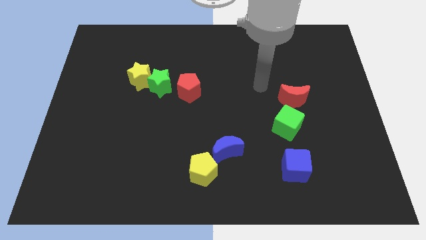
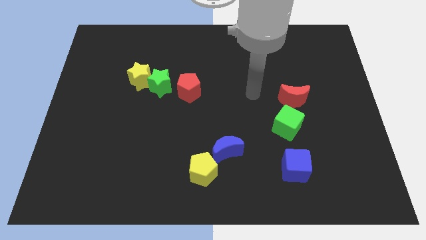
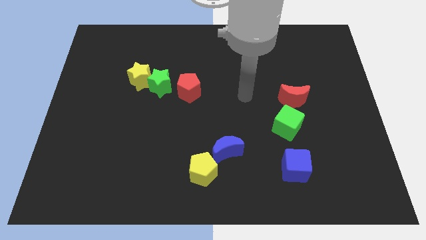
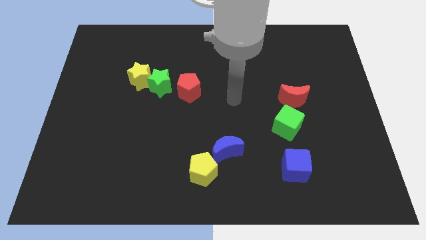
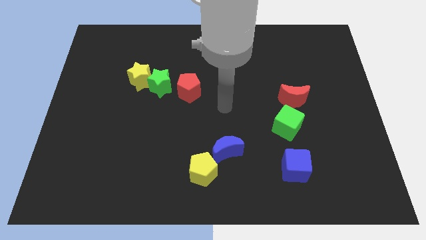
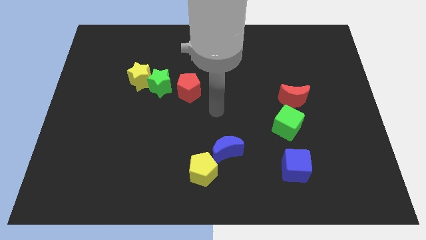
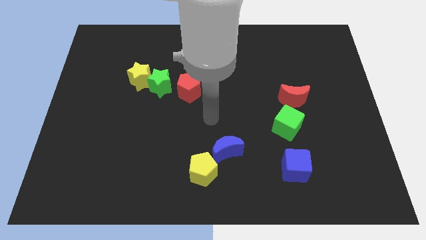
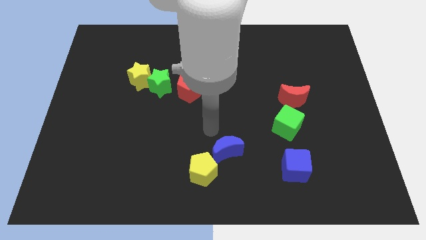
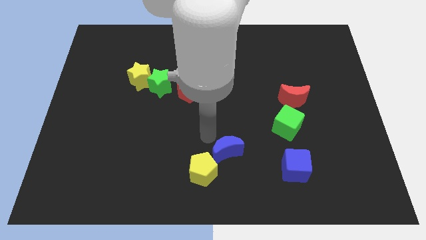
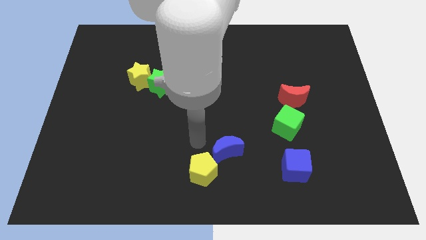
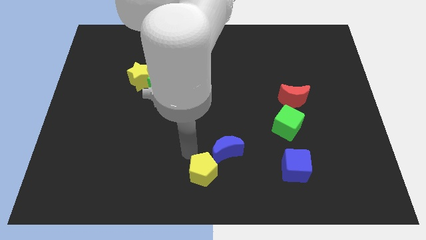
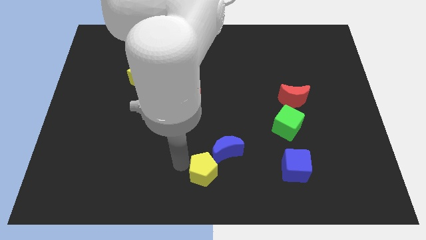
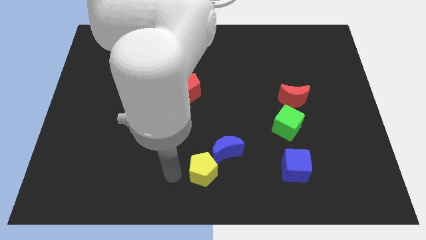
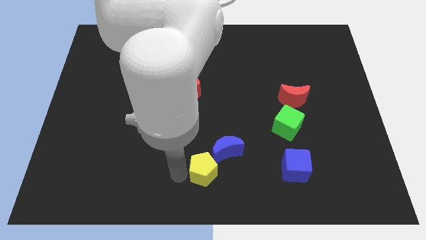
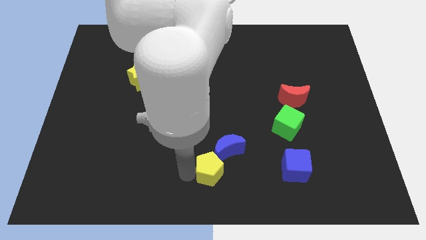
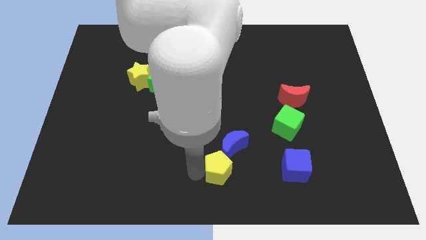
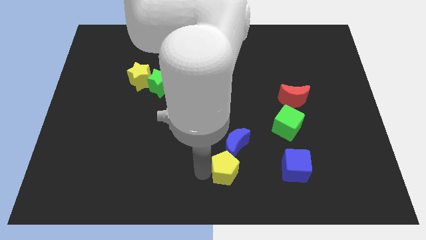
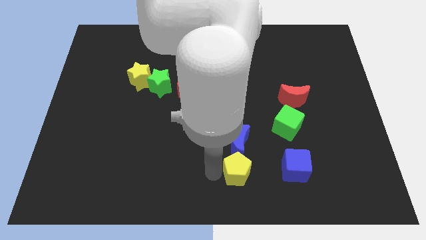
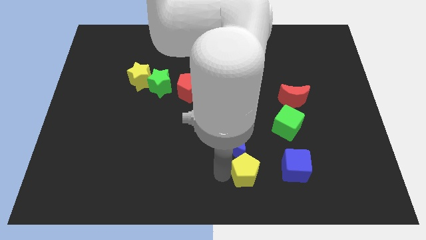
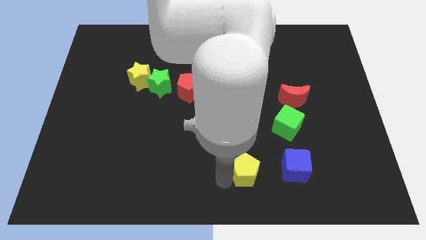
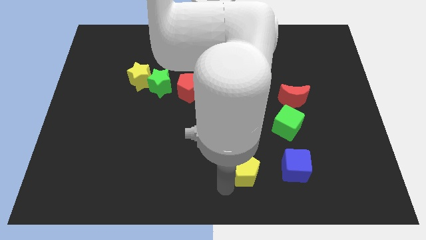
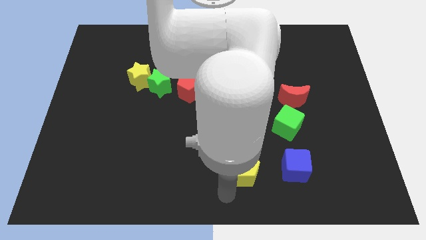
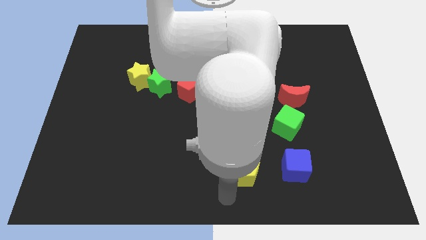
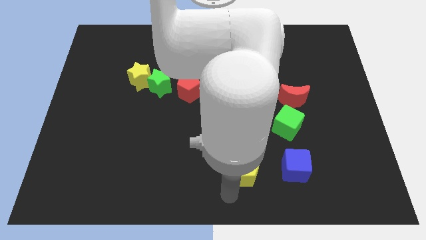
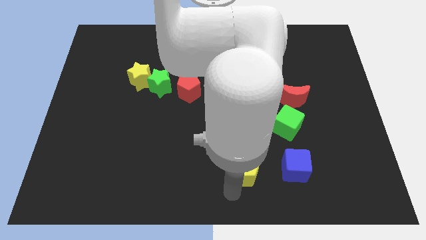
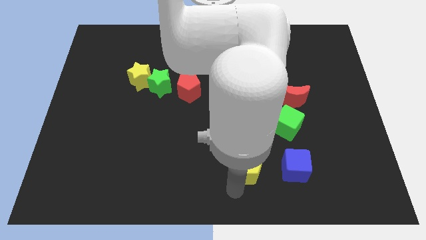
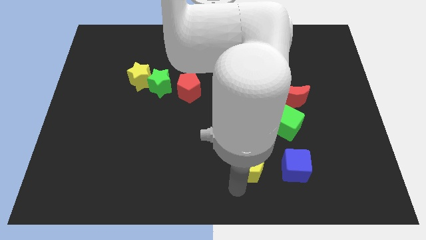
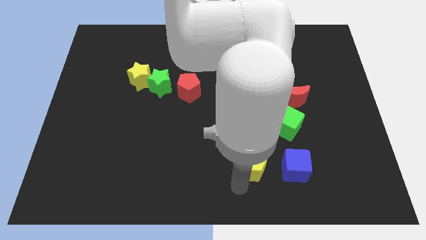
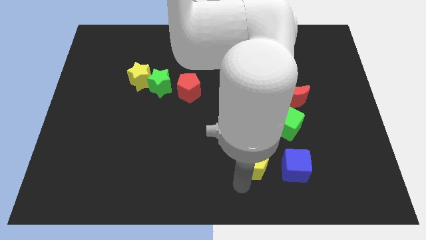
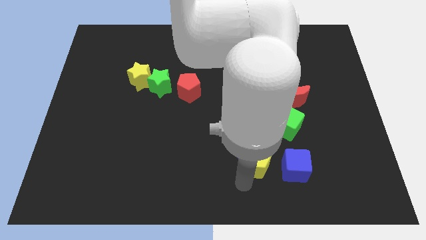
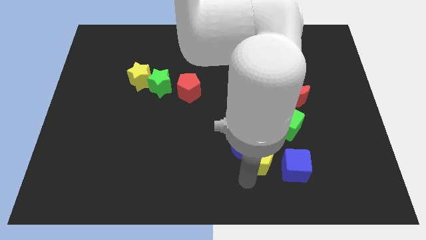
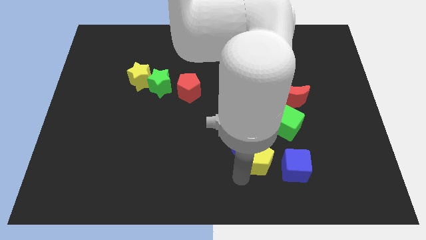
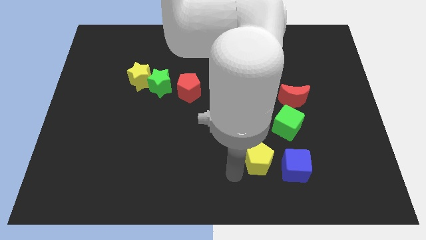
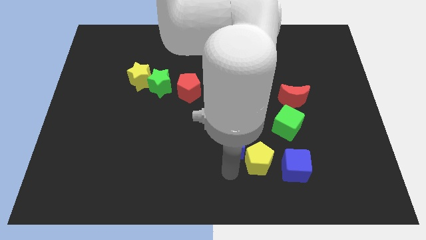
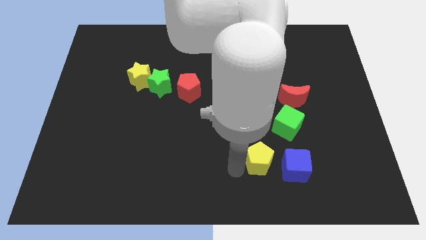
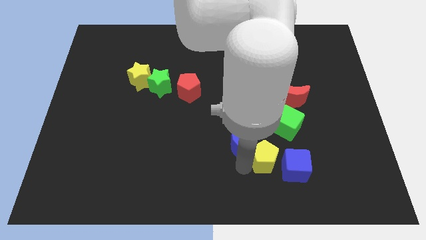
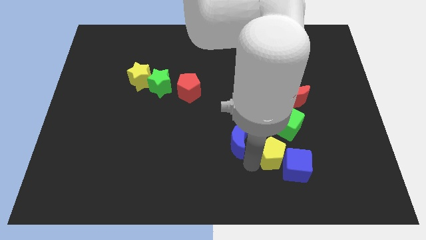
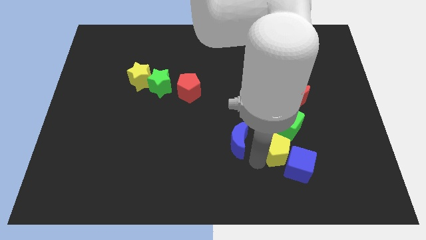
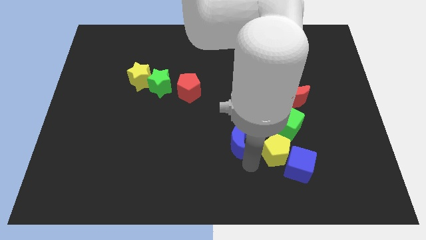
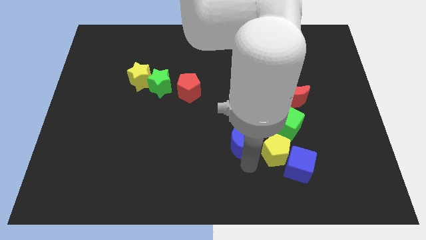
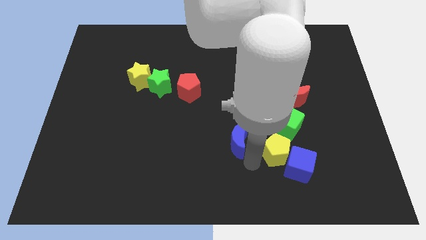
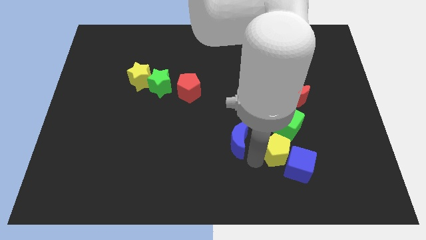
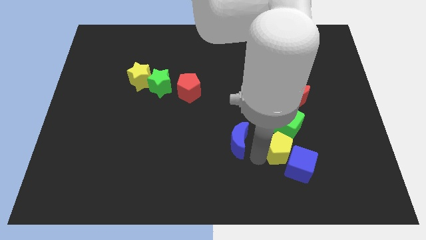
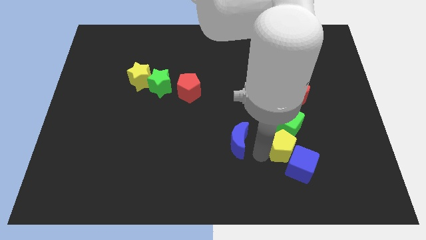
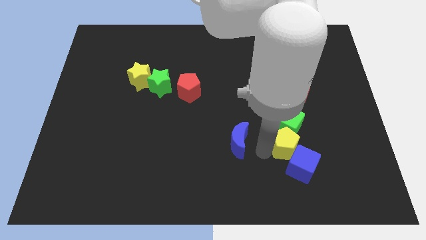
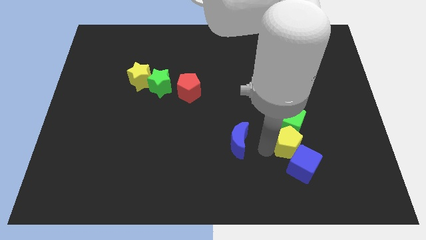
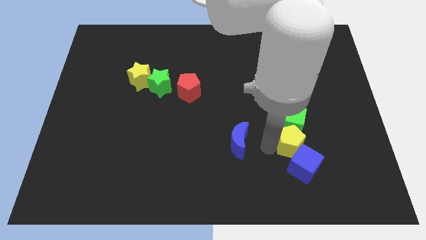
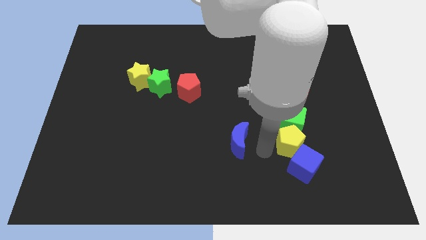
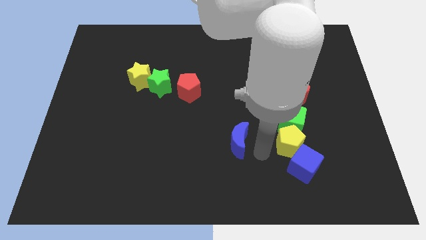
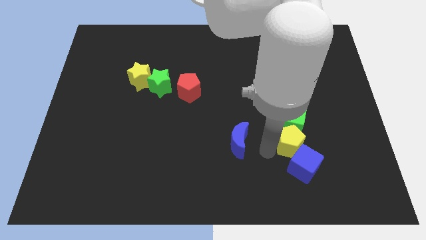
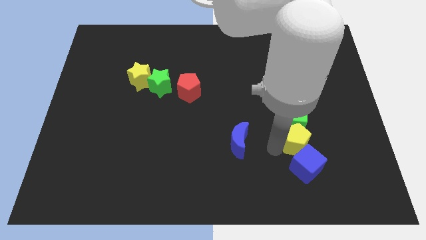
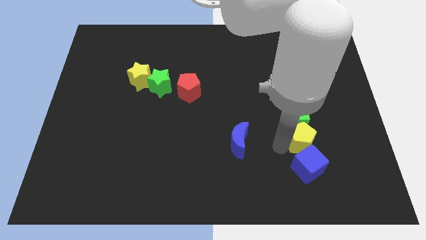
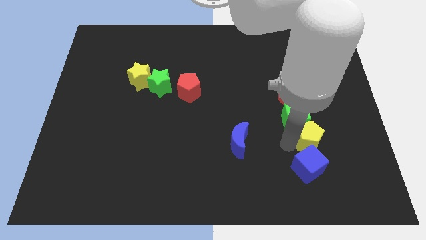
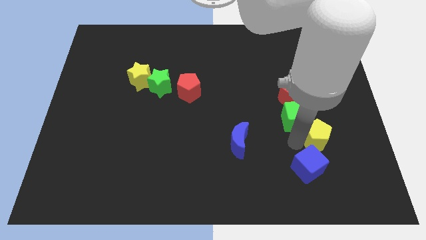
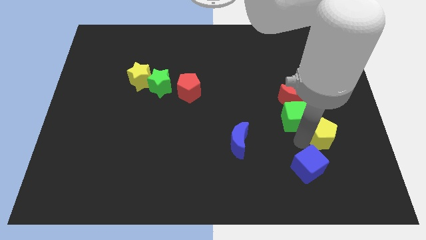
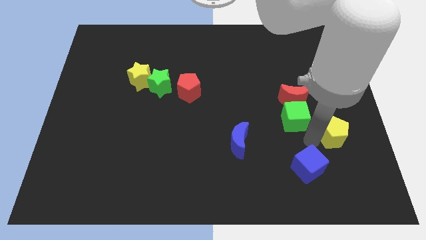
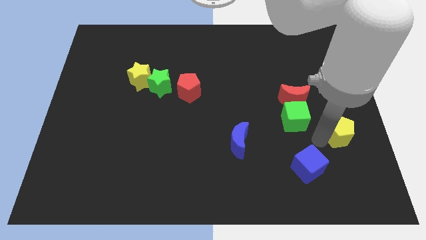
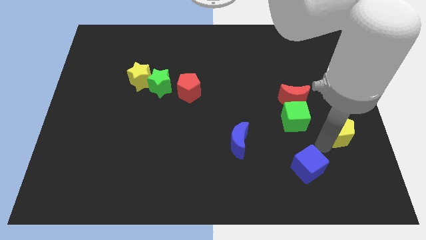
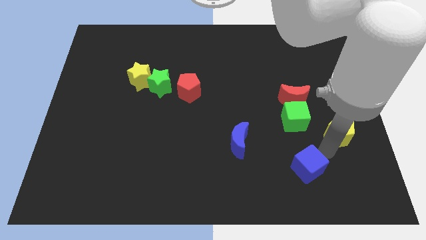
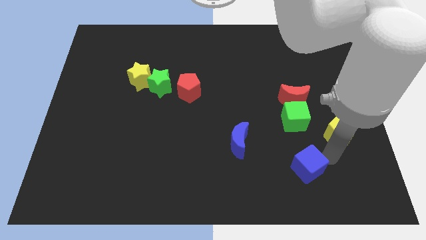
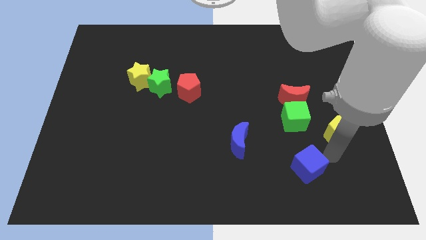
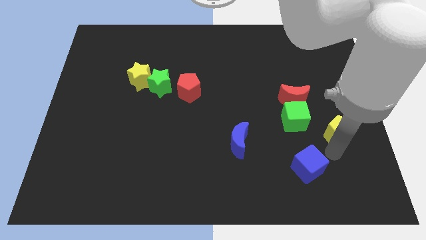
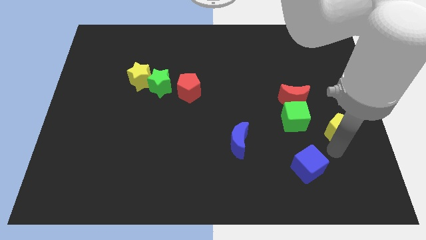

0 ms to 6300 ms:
move the yellow pentagon to the center right

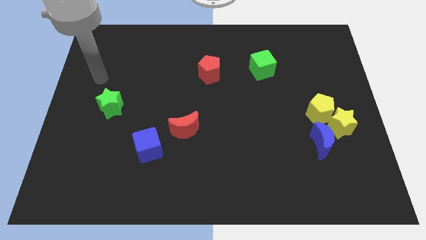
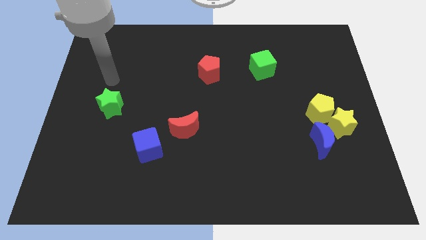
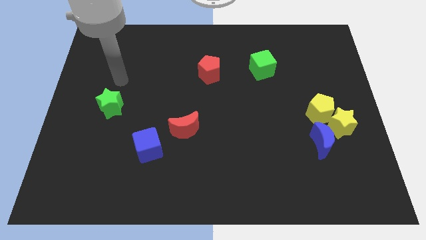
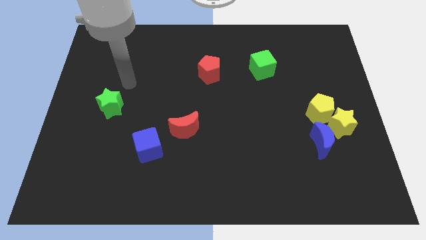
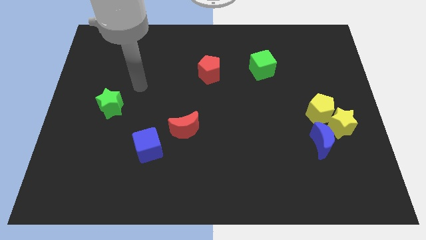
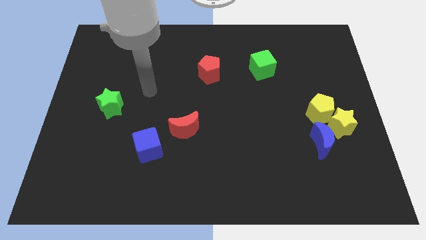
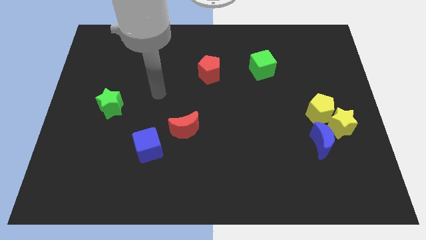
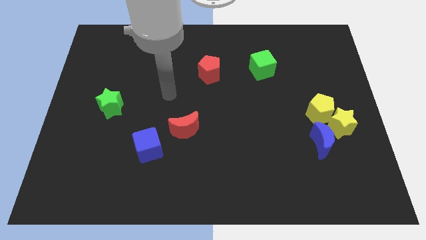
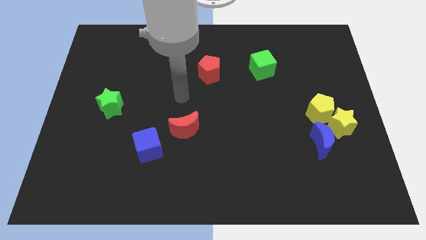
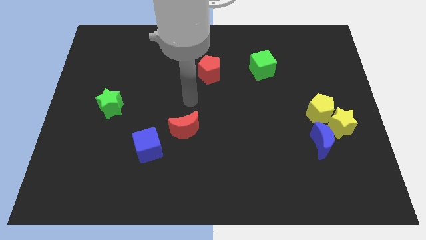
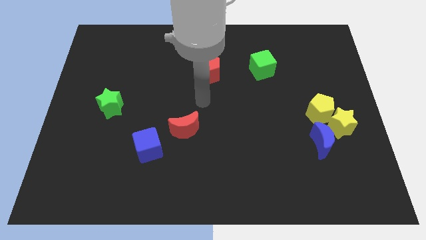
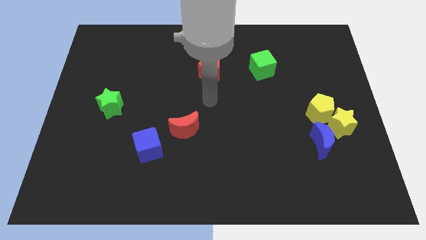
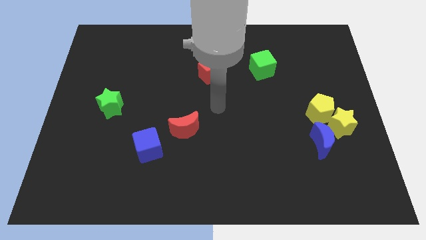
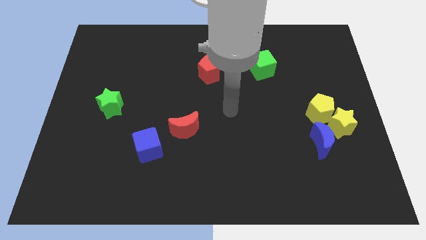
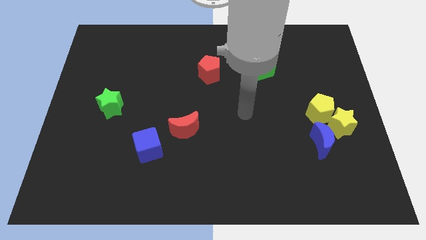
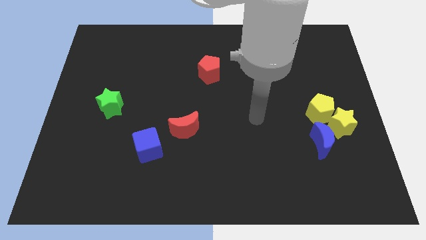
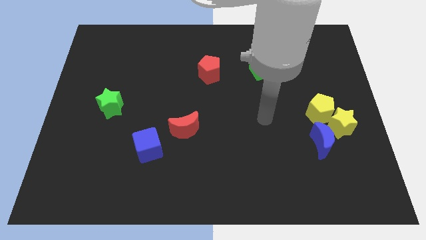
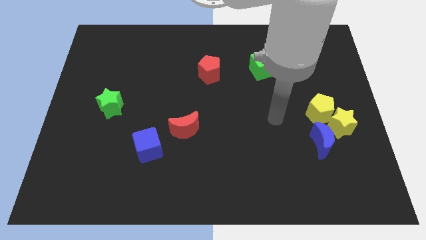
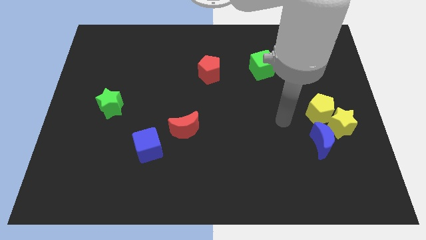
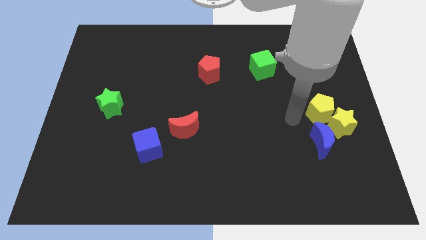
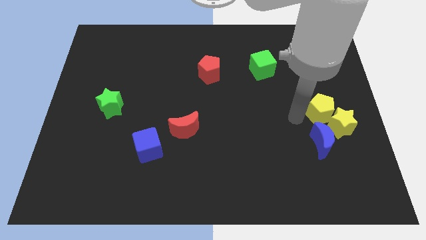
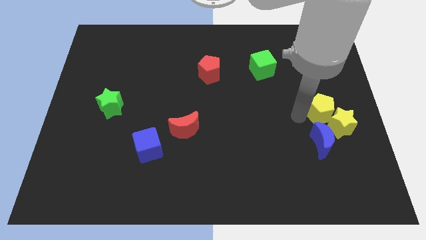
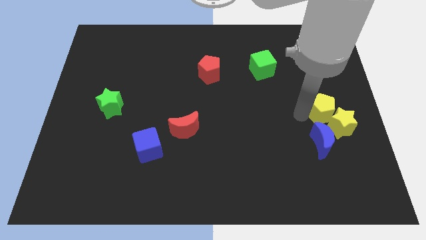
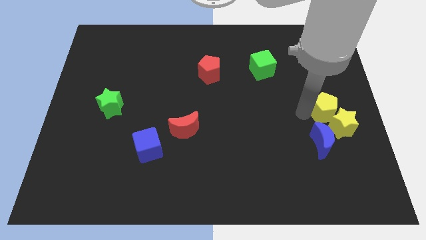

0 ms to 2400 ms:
slide the yellow pentagon to the right side of the board
